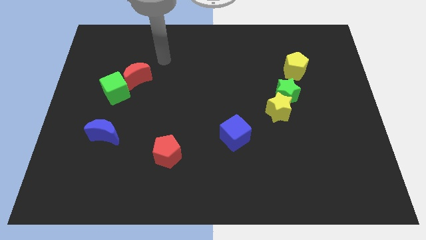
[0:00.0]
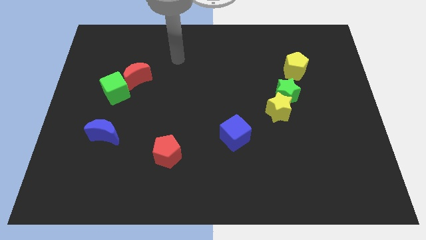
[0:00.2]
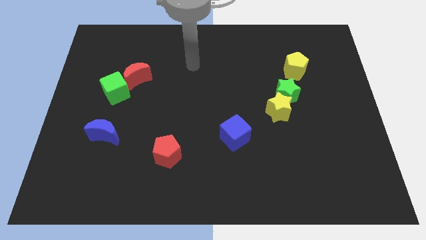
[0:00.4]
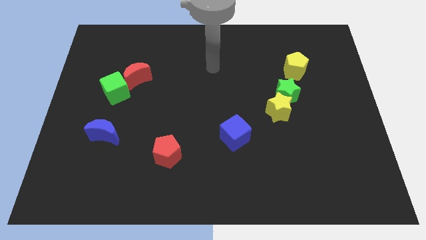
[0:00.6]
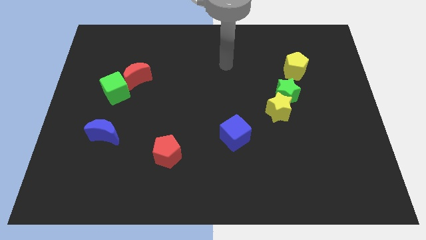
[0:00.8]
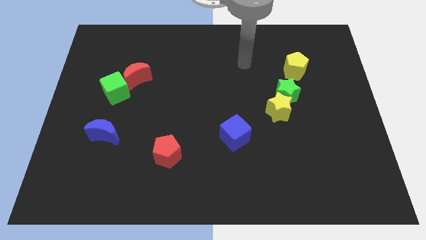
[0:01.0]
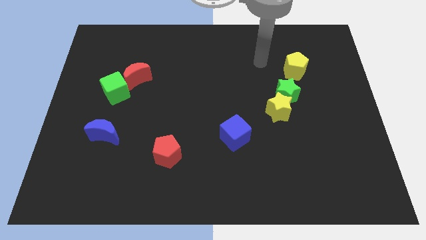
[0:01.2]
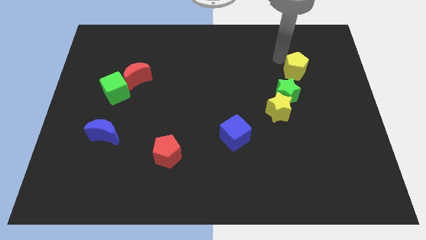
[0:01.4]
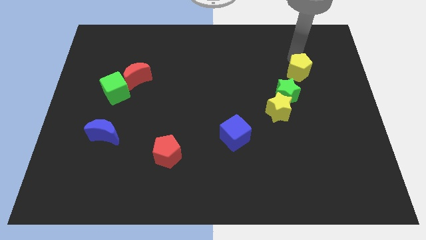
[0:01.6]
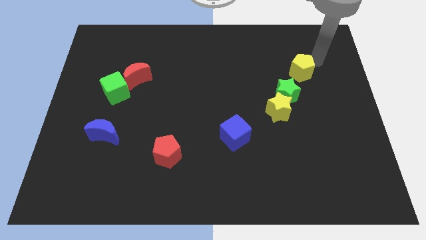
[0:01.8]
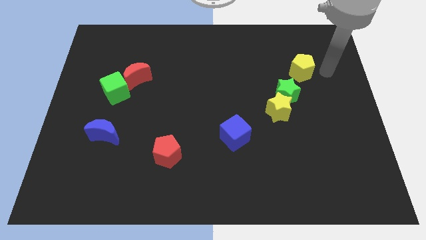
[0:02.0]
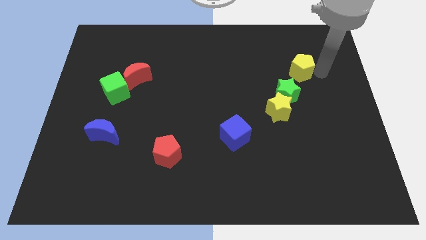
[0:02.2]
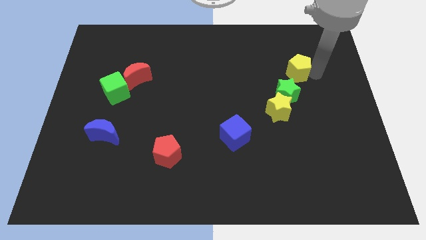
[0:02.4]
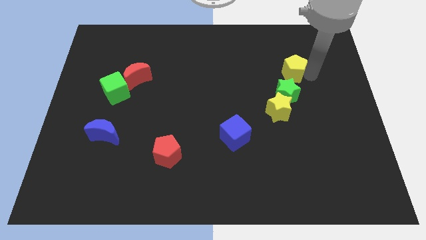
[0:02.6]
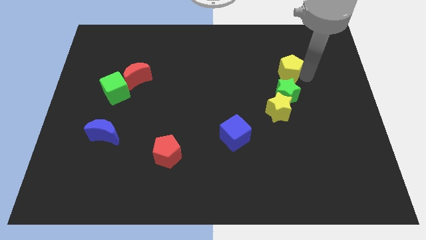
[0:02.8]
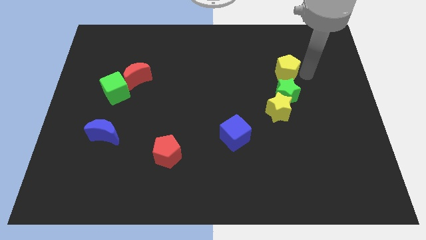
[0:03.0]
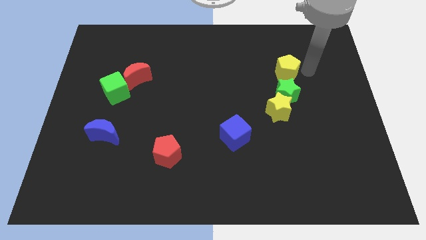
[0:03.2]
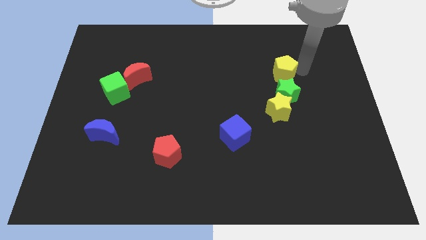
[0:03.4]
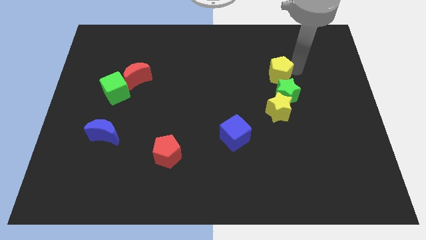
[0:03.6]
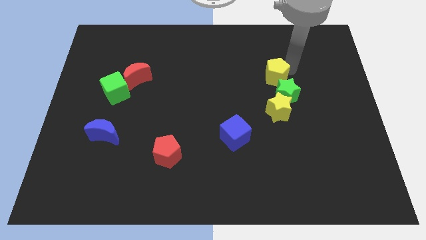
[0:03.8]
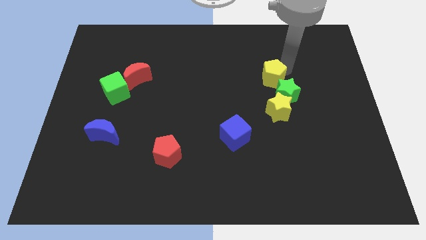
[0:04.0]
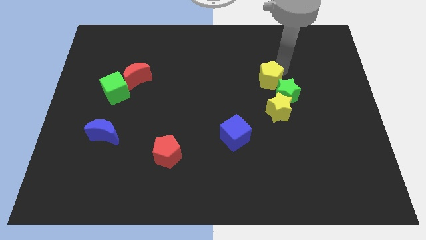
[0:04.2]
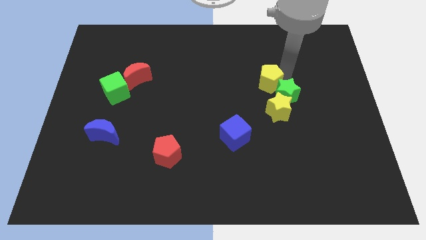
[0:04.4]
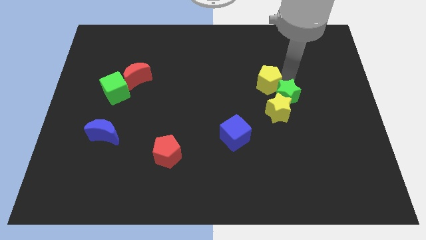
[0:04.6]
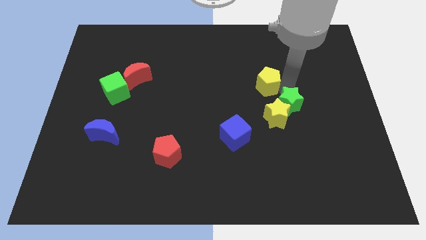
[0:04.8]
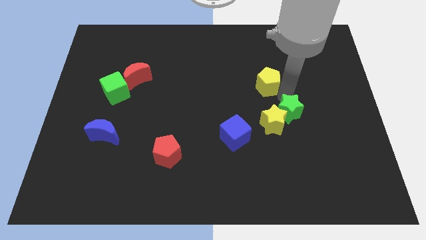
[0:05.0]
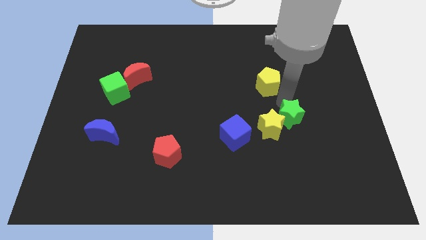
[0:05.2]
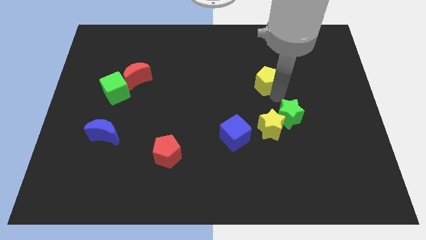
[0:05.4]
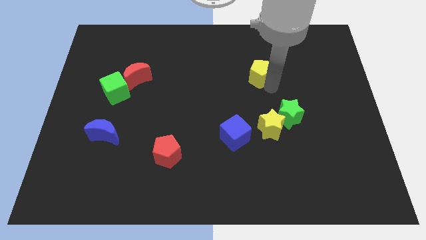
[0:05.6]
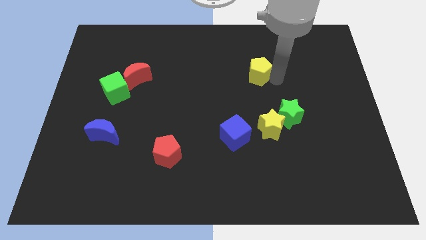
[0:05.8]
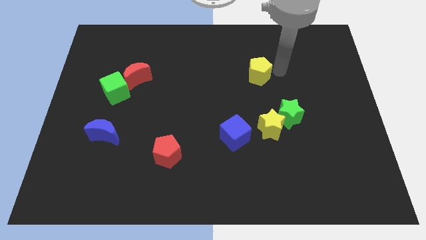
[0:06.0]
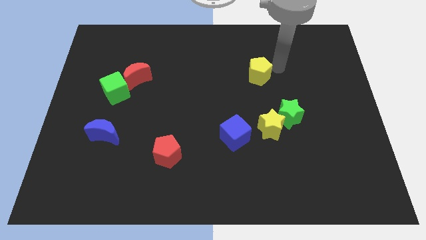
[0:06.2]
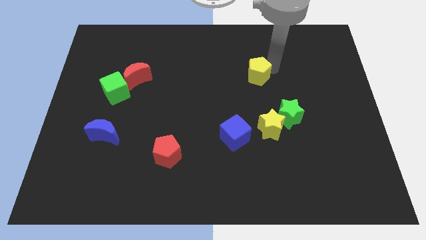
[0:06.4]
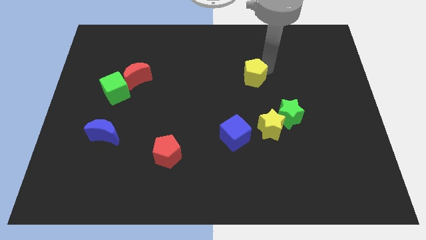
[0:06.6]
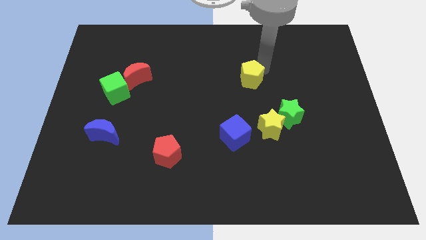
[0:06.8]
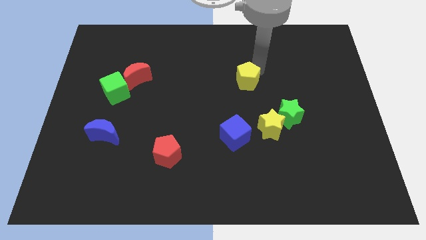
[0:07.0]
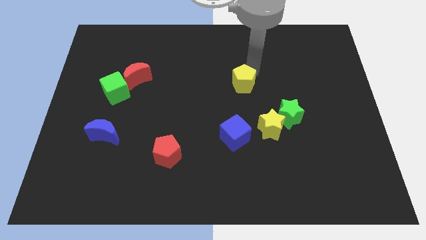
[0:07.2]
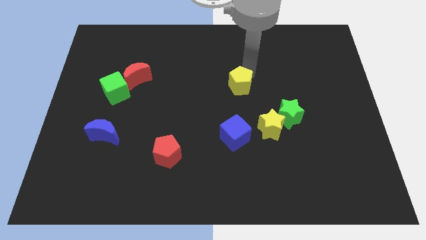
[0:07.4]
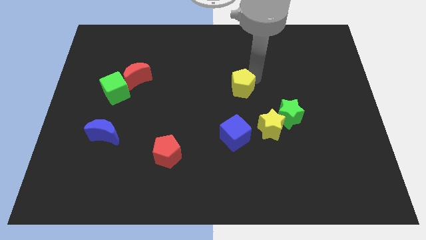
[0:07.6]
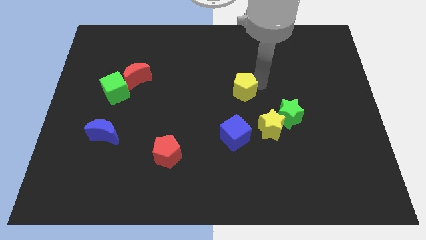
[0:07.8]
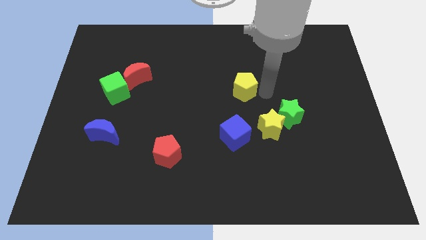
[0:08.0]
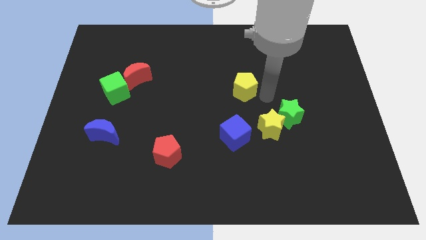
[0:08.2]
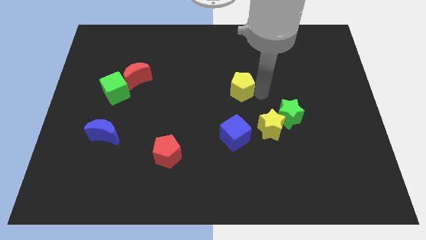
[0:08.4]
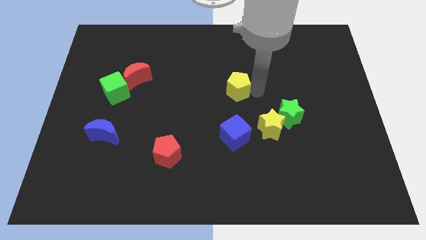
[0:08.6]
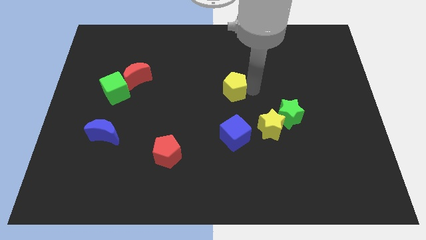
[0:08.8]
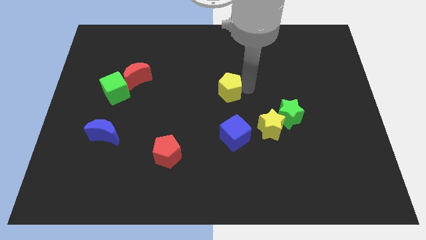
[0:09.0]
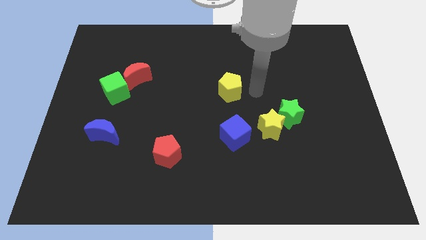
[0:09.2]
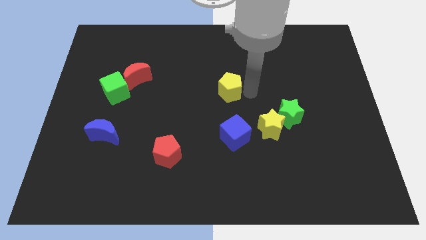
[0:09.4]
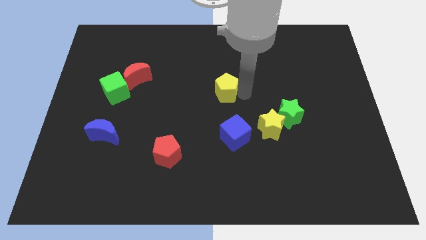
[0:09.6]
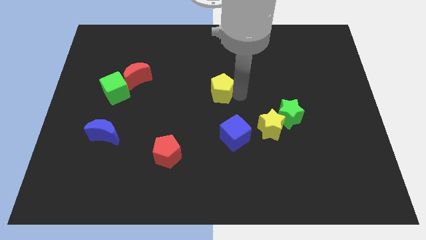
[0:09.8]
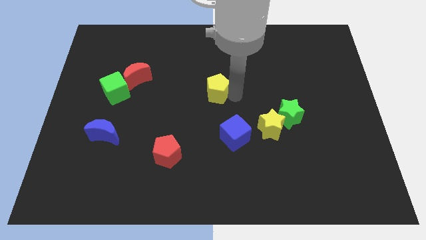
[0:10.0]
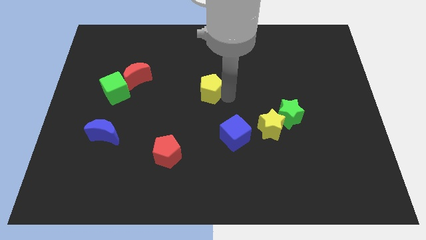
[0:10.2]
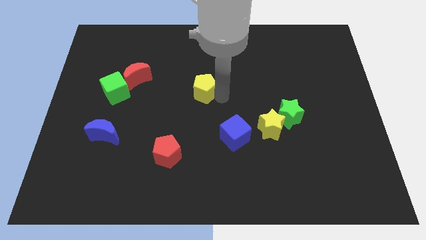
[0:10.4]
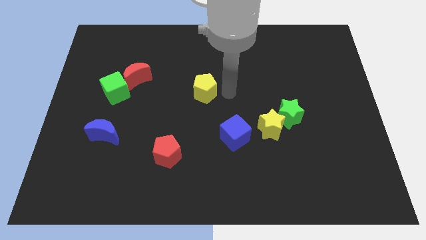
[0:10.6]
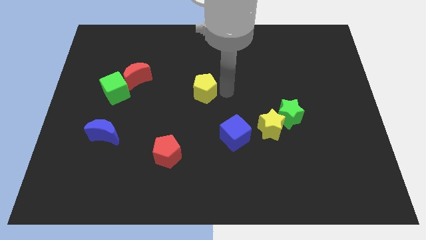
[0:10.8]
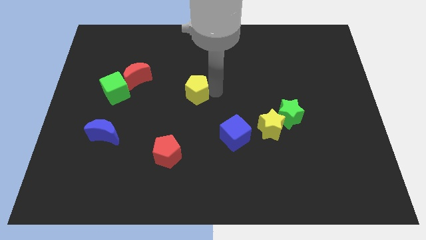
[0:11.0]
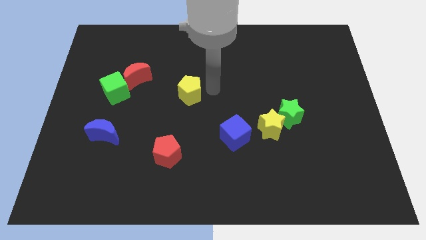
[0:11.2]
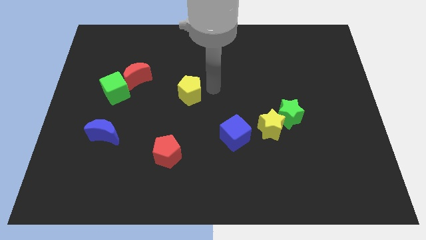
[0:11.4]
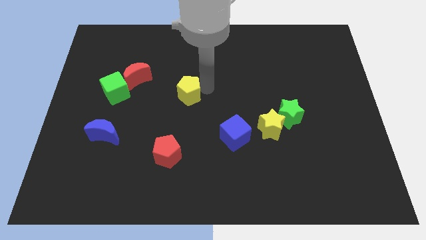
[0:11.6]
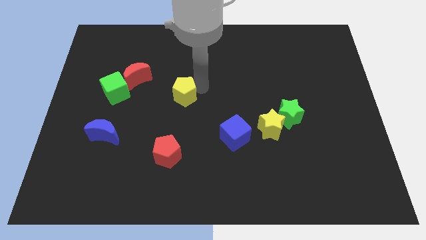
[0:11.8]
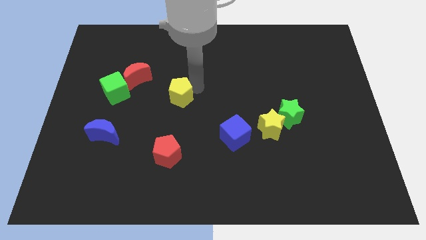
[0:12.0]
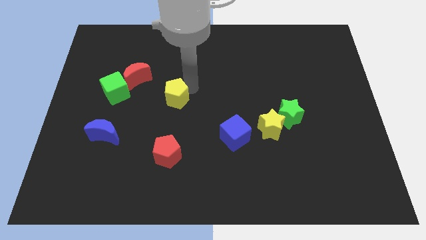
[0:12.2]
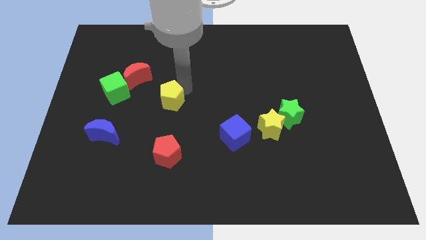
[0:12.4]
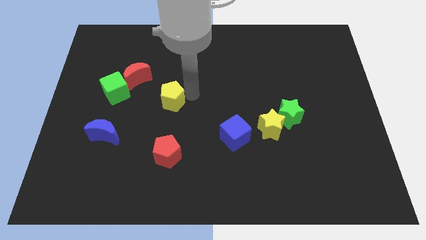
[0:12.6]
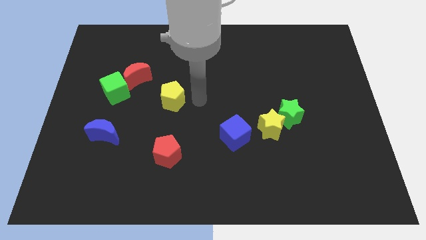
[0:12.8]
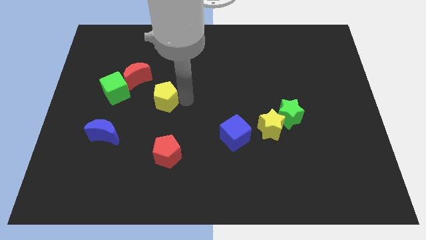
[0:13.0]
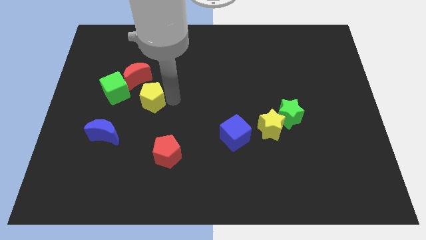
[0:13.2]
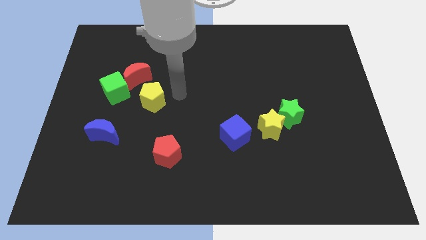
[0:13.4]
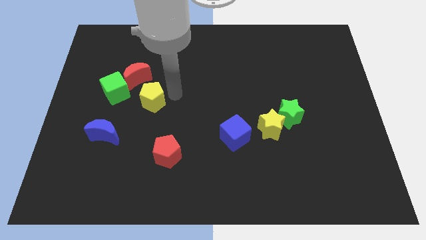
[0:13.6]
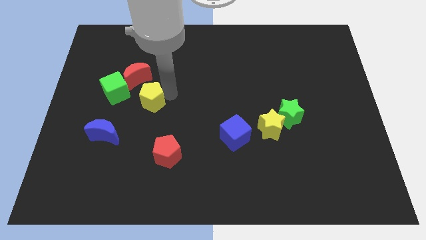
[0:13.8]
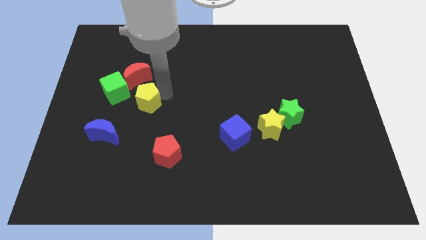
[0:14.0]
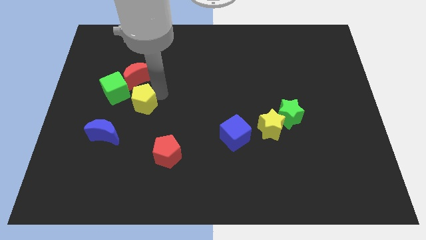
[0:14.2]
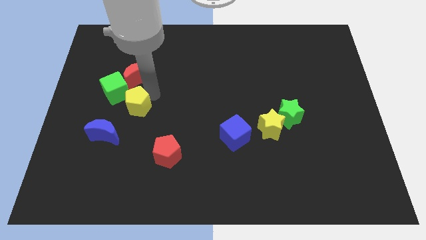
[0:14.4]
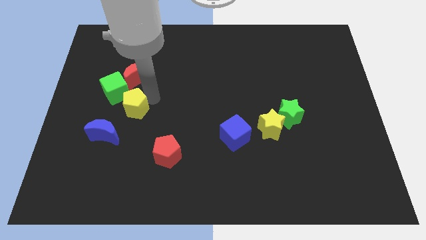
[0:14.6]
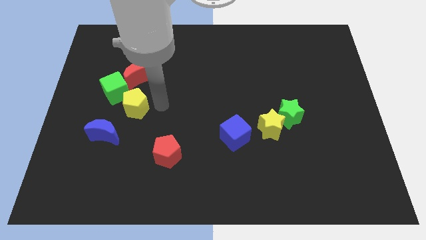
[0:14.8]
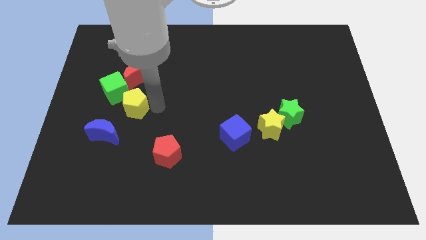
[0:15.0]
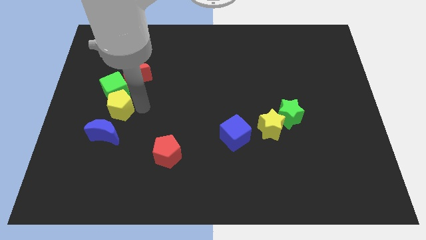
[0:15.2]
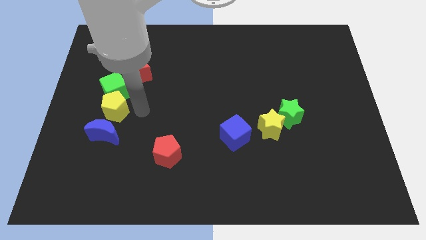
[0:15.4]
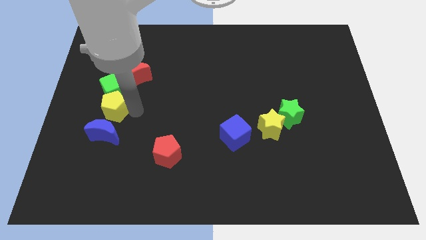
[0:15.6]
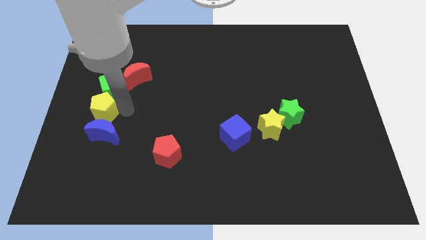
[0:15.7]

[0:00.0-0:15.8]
slide the yellow pentagon to the left side
